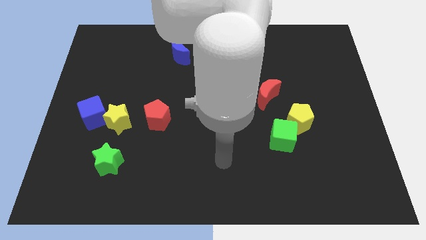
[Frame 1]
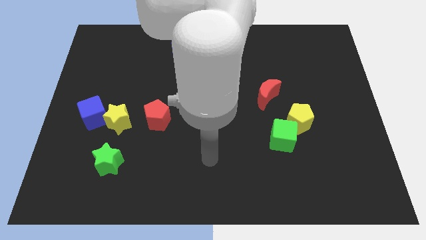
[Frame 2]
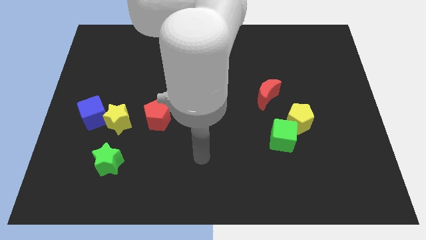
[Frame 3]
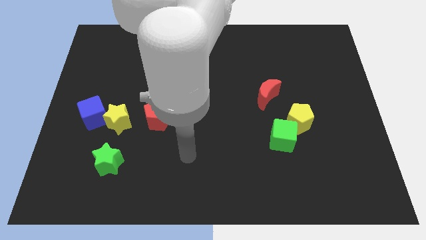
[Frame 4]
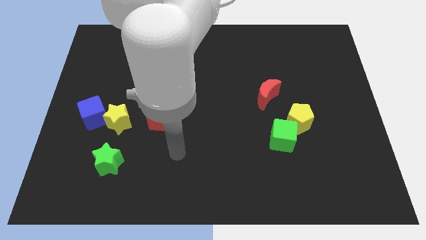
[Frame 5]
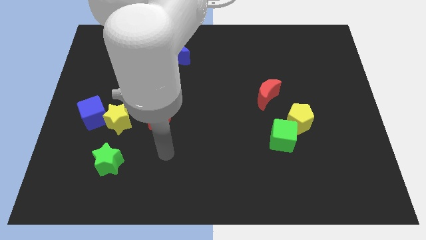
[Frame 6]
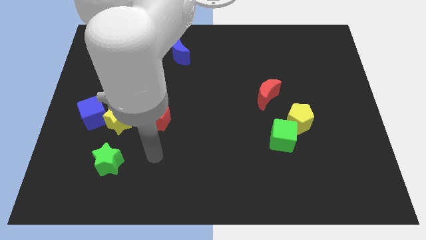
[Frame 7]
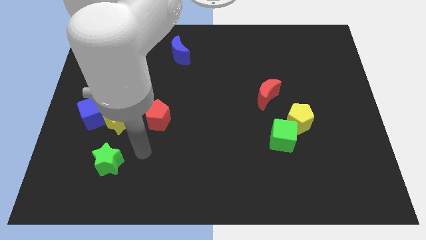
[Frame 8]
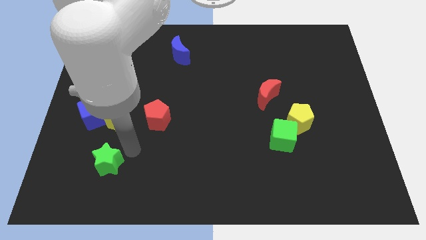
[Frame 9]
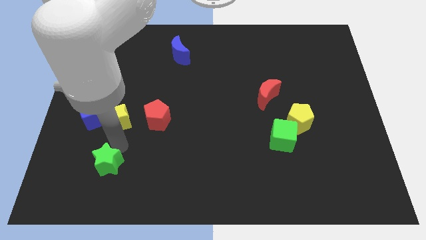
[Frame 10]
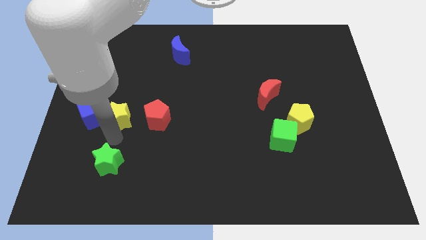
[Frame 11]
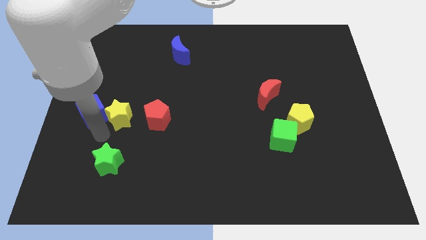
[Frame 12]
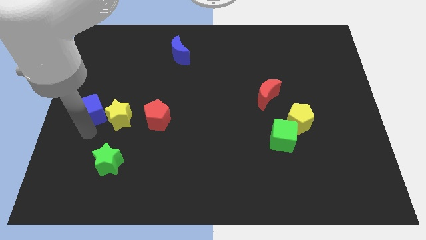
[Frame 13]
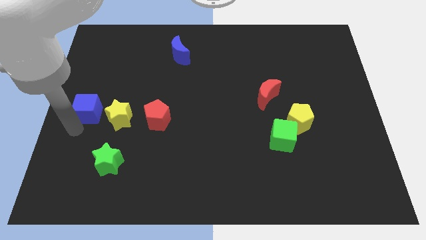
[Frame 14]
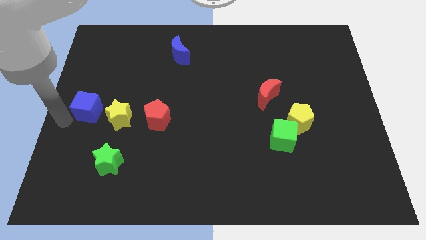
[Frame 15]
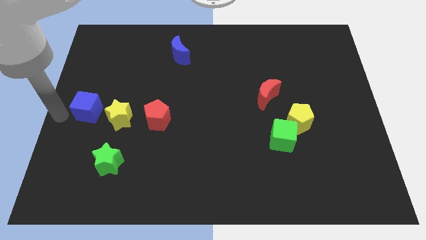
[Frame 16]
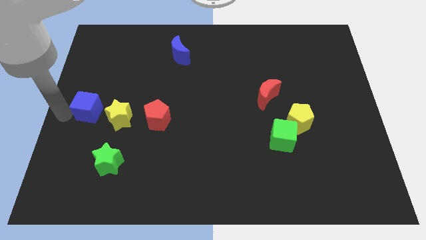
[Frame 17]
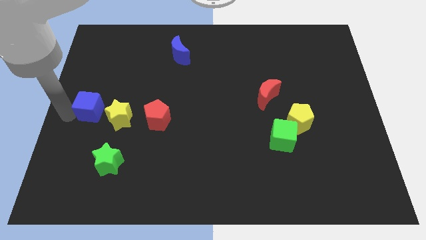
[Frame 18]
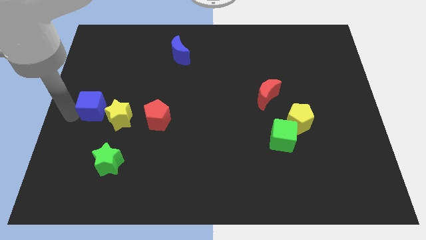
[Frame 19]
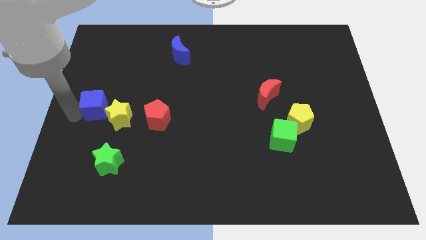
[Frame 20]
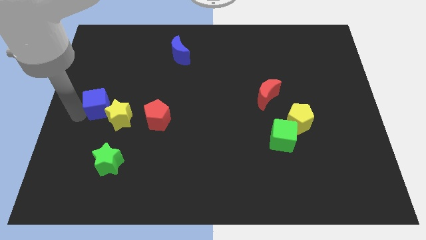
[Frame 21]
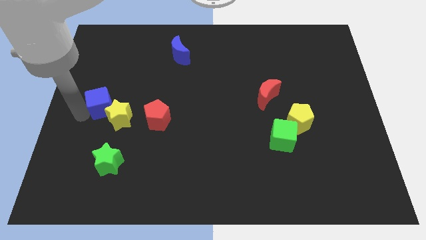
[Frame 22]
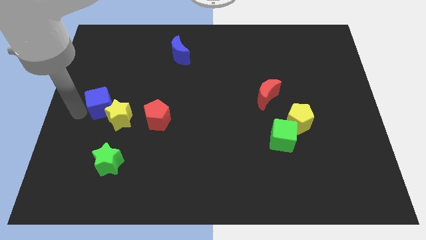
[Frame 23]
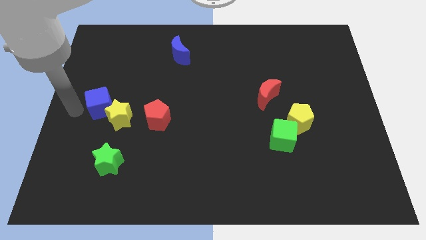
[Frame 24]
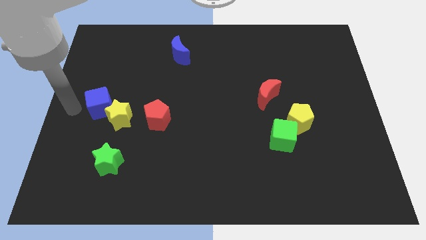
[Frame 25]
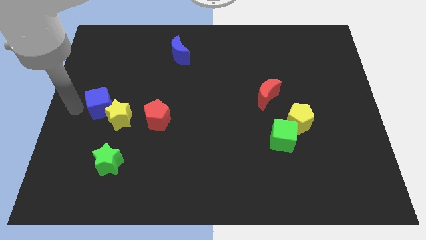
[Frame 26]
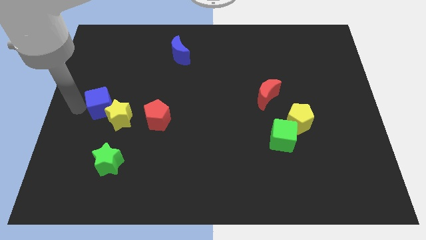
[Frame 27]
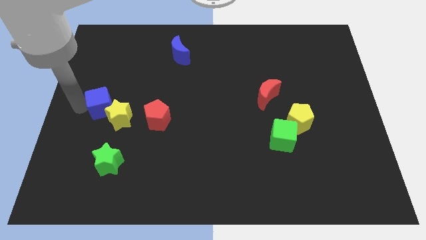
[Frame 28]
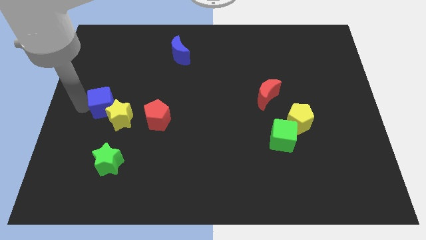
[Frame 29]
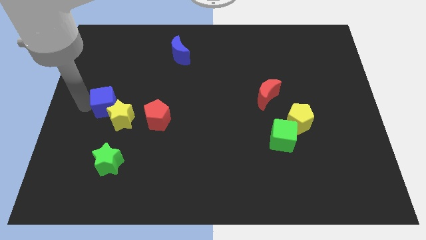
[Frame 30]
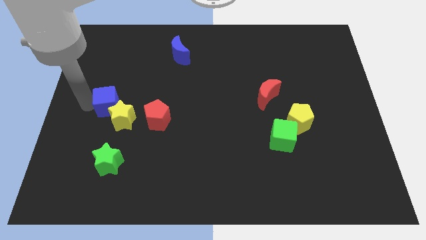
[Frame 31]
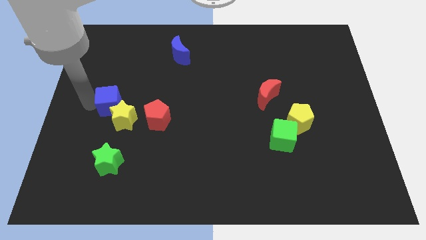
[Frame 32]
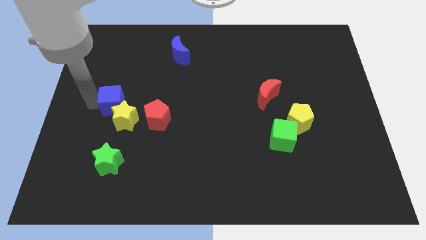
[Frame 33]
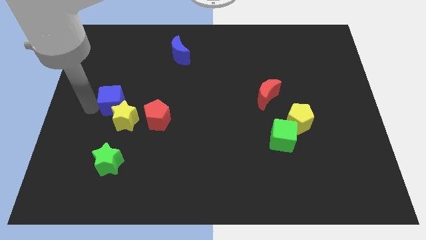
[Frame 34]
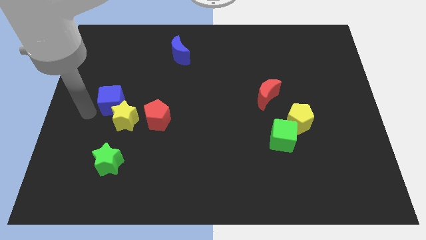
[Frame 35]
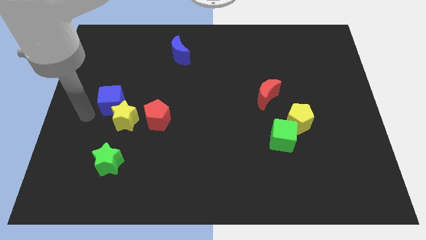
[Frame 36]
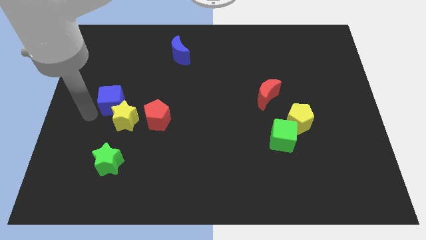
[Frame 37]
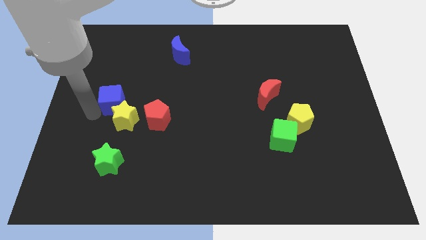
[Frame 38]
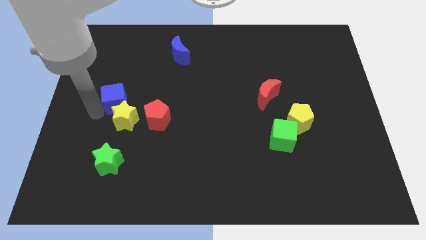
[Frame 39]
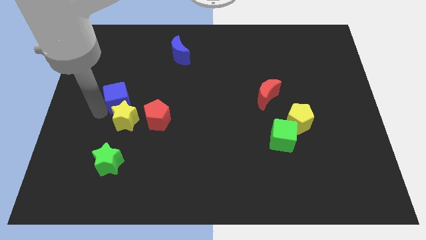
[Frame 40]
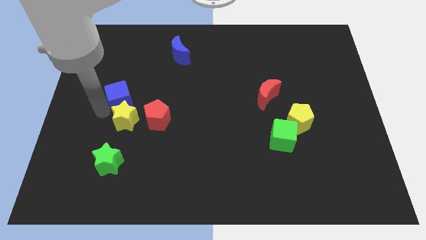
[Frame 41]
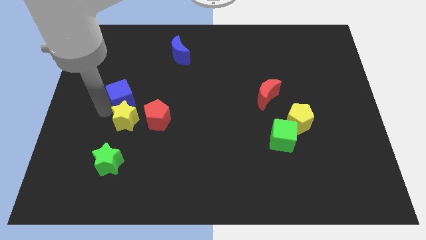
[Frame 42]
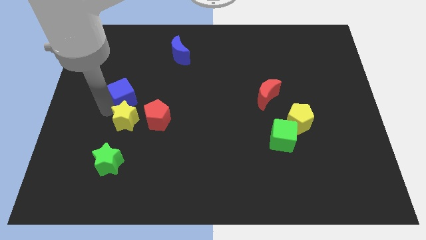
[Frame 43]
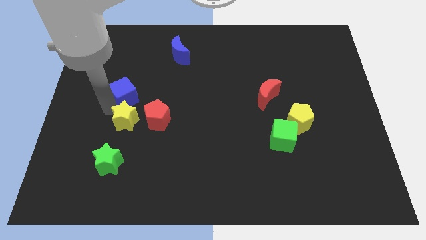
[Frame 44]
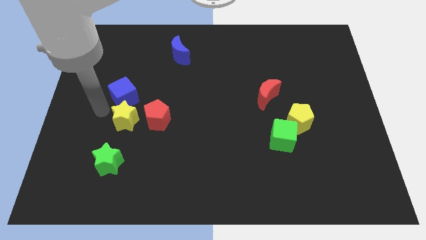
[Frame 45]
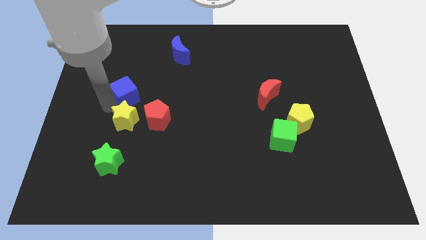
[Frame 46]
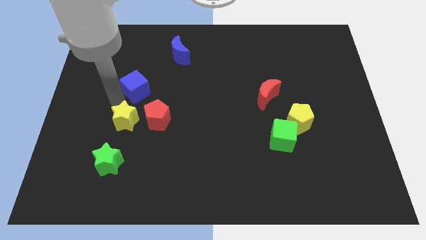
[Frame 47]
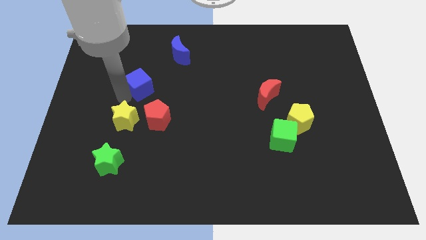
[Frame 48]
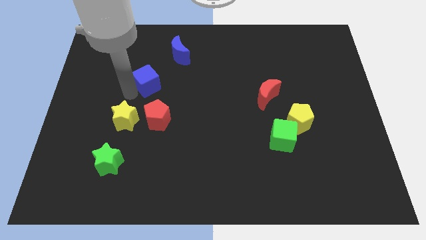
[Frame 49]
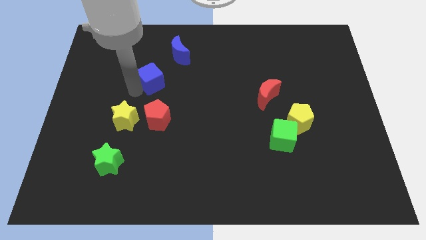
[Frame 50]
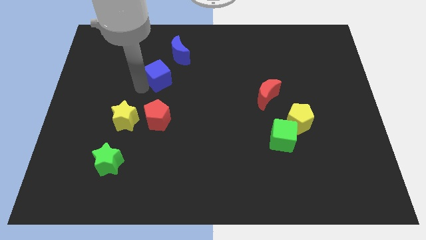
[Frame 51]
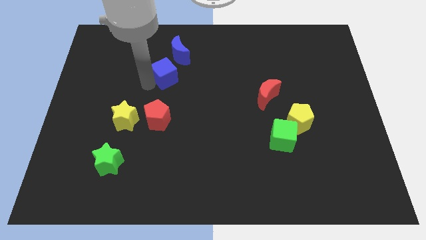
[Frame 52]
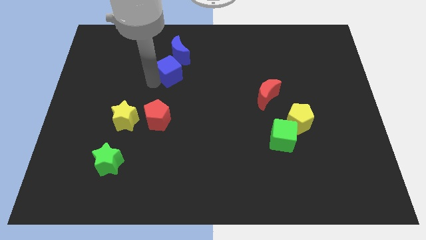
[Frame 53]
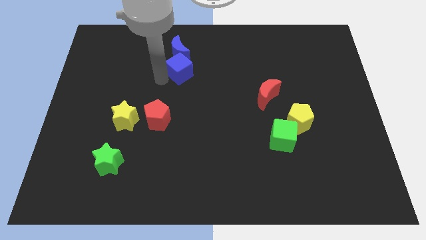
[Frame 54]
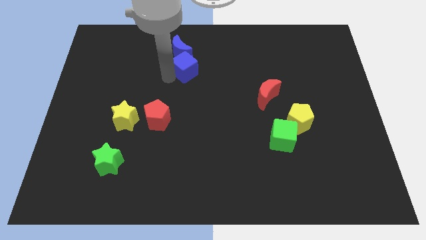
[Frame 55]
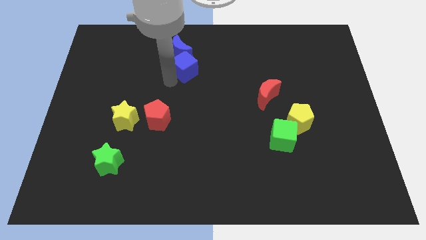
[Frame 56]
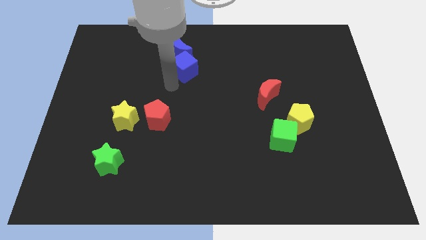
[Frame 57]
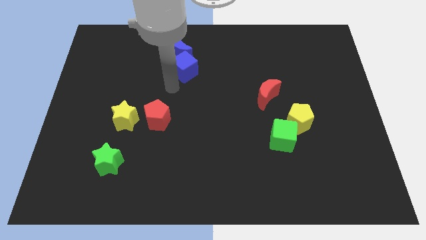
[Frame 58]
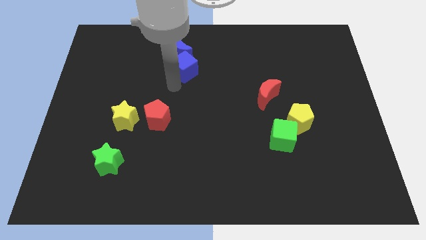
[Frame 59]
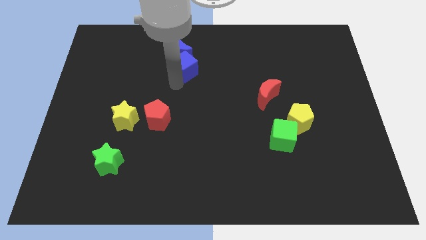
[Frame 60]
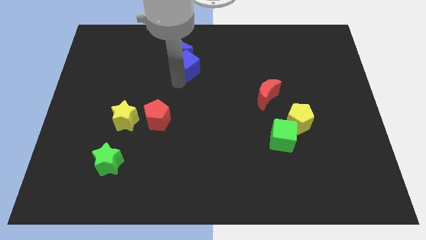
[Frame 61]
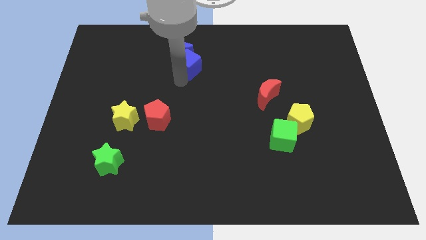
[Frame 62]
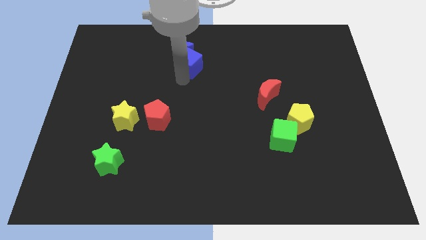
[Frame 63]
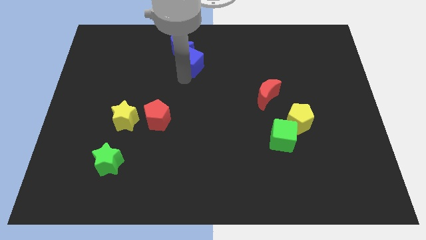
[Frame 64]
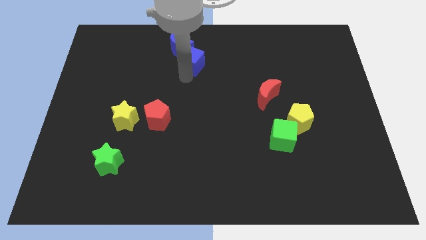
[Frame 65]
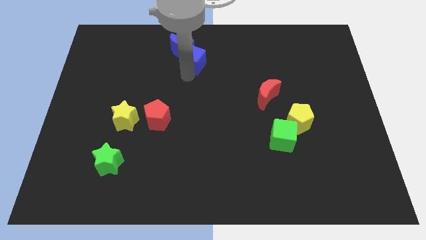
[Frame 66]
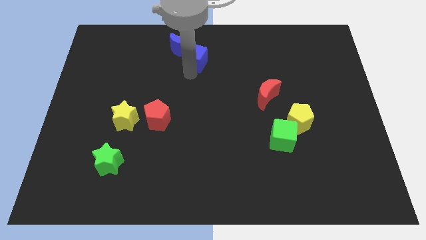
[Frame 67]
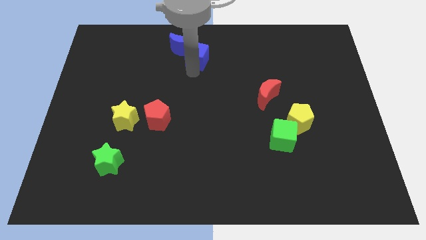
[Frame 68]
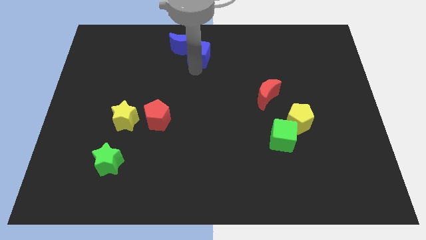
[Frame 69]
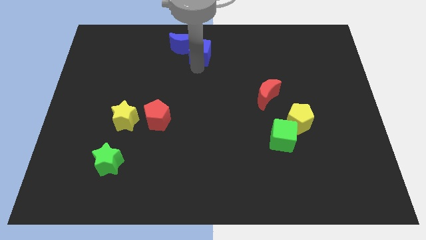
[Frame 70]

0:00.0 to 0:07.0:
put the blue cube to the towards your base
